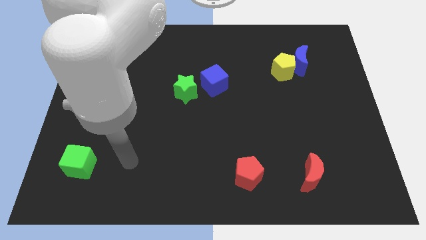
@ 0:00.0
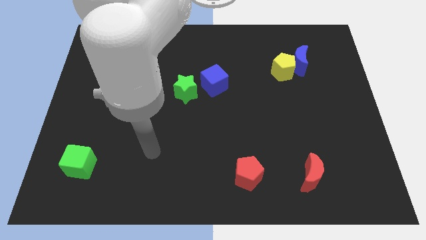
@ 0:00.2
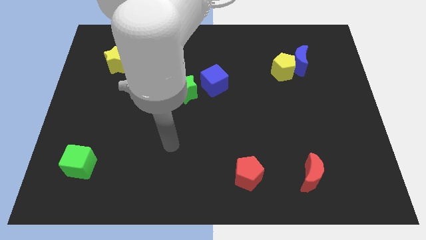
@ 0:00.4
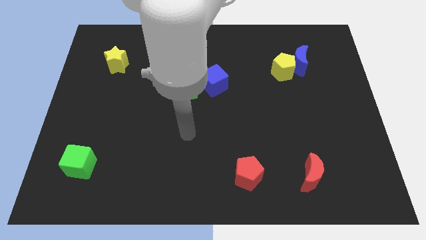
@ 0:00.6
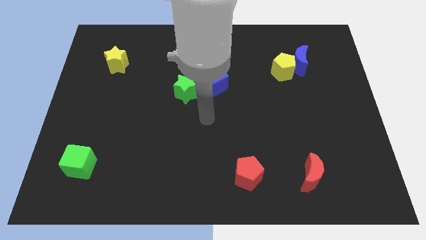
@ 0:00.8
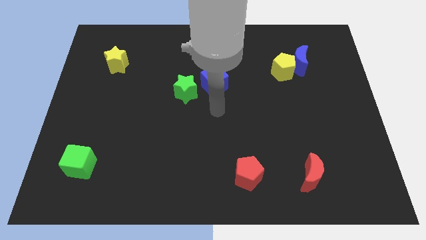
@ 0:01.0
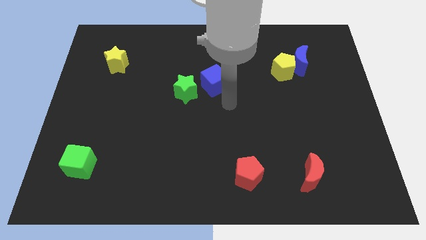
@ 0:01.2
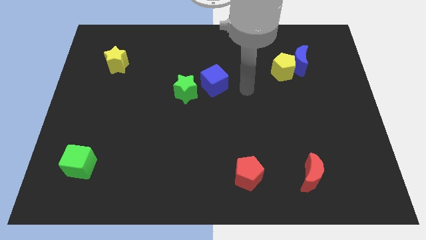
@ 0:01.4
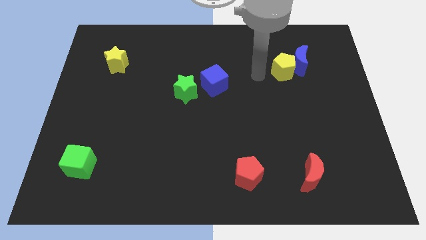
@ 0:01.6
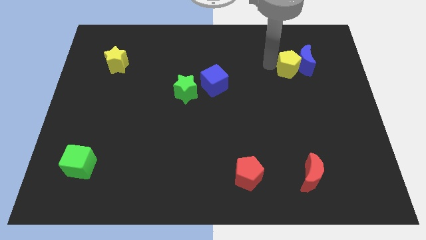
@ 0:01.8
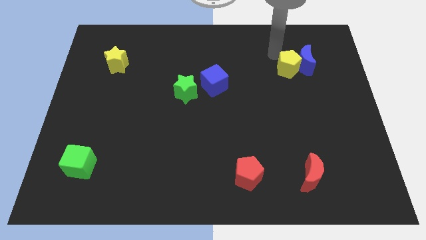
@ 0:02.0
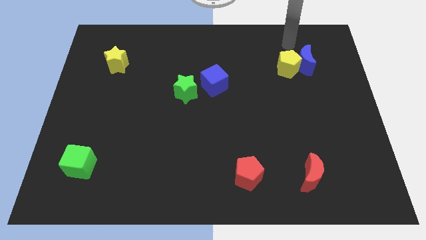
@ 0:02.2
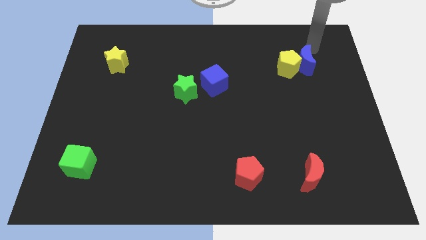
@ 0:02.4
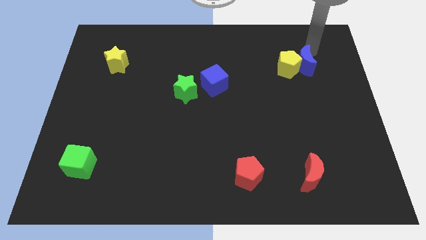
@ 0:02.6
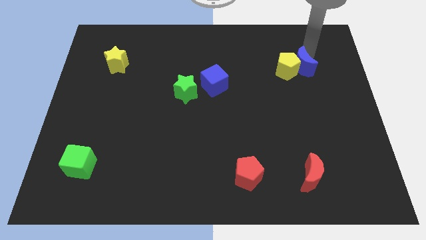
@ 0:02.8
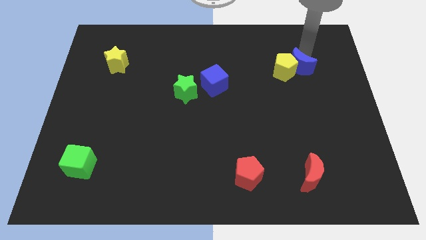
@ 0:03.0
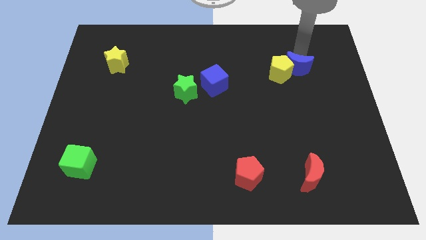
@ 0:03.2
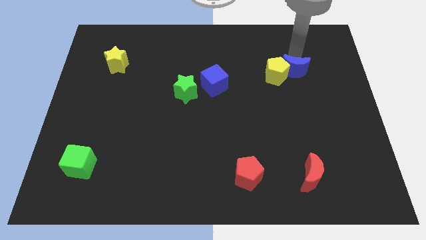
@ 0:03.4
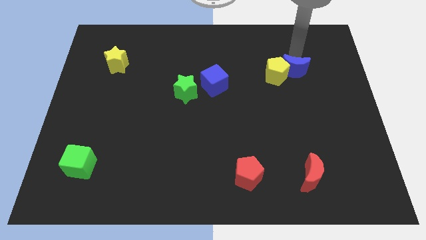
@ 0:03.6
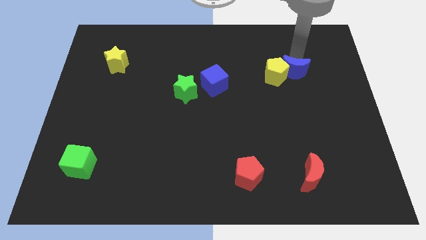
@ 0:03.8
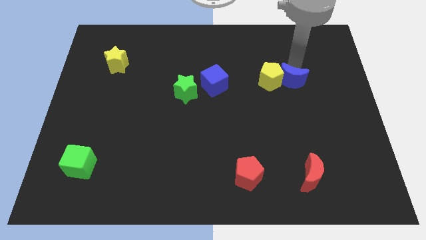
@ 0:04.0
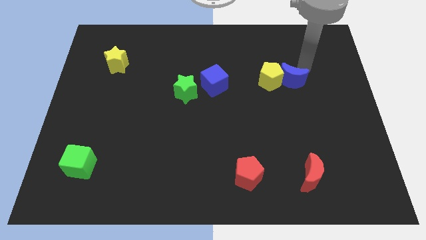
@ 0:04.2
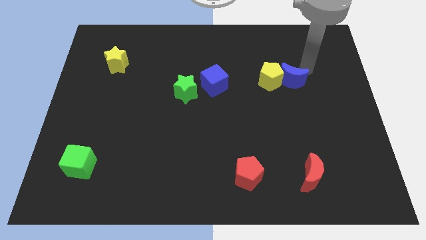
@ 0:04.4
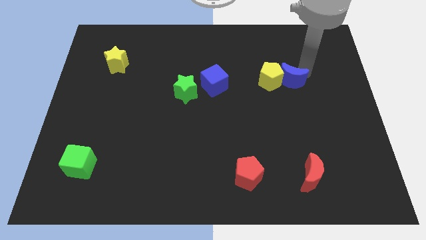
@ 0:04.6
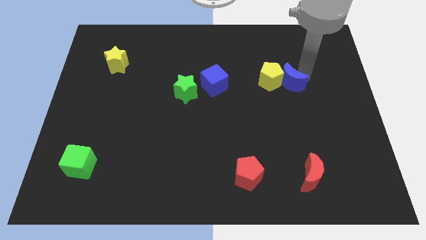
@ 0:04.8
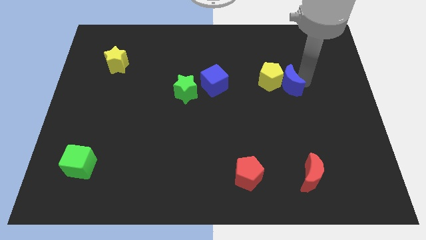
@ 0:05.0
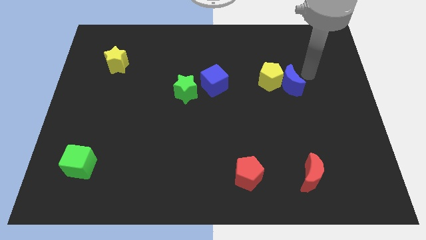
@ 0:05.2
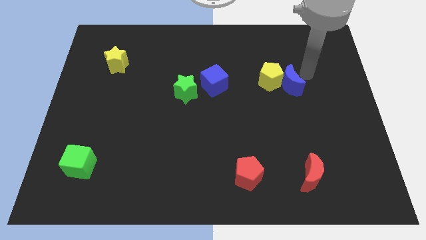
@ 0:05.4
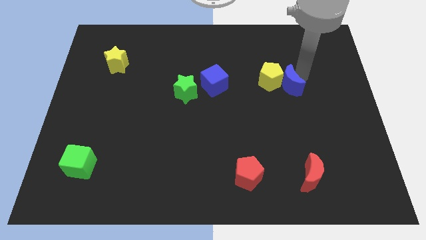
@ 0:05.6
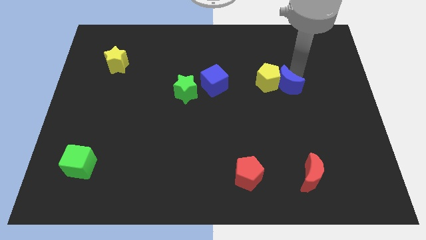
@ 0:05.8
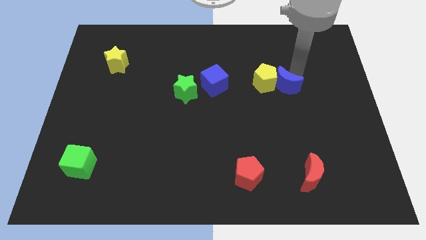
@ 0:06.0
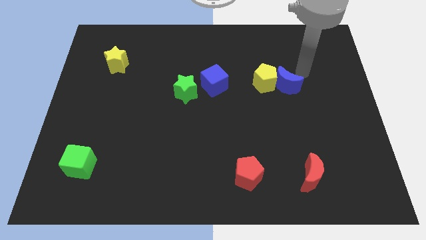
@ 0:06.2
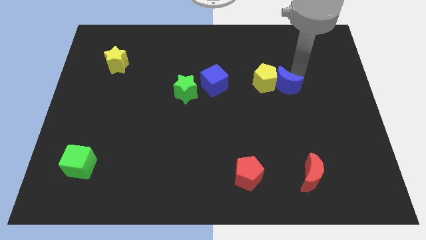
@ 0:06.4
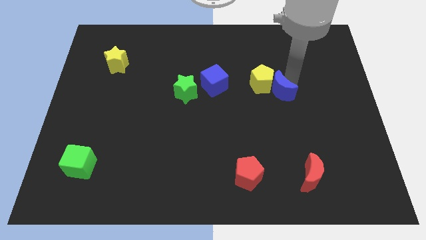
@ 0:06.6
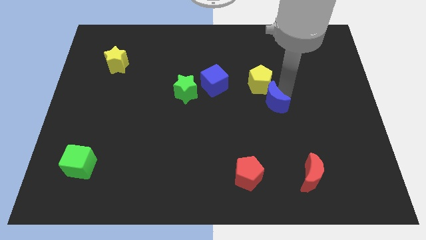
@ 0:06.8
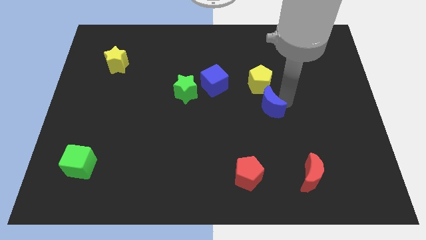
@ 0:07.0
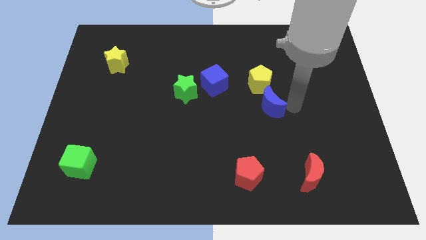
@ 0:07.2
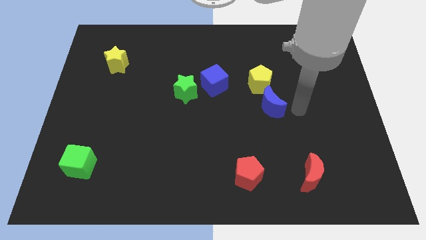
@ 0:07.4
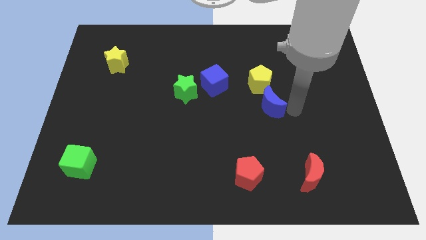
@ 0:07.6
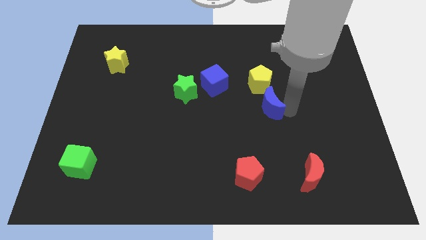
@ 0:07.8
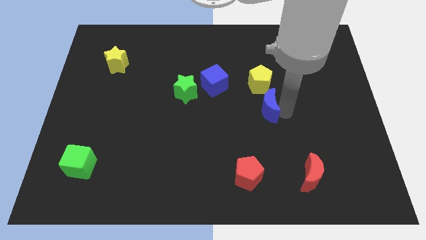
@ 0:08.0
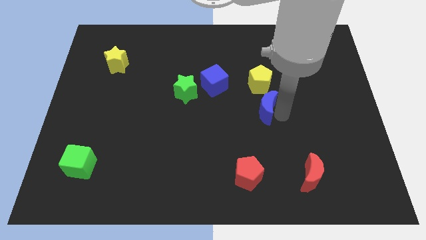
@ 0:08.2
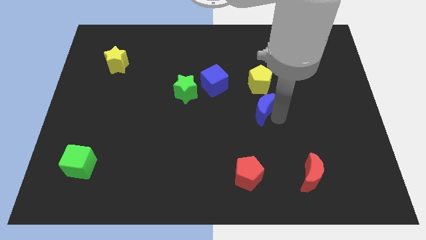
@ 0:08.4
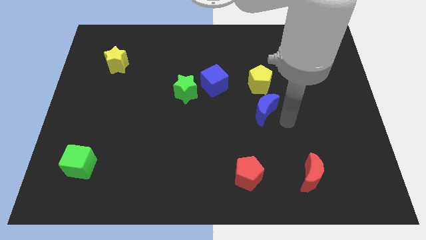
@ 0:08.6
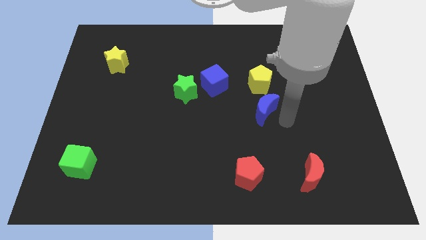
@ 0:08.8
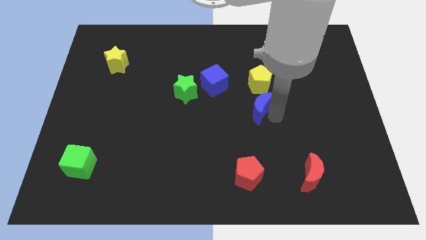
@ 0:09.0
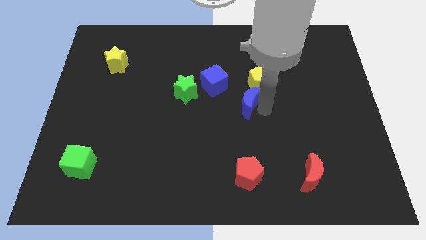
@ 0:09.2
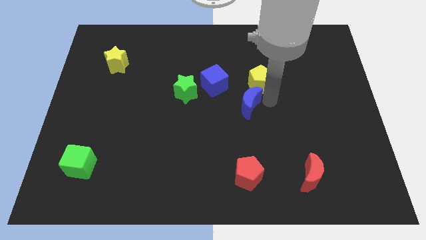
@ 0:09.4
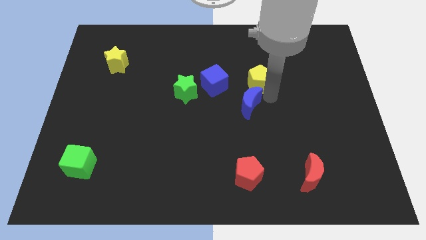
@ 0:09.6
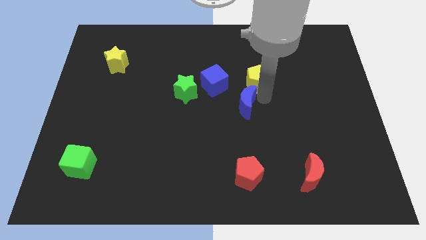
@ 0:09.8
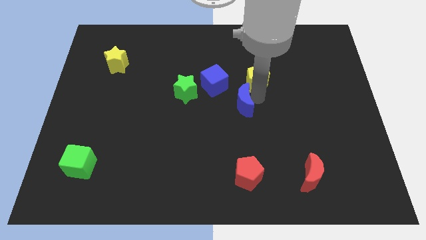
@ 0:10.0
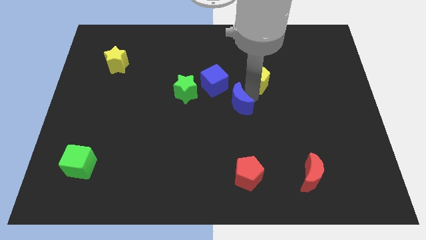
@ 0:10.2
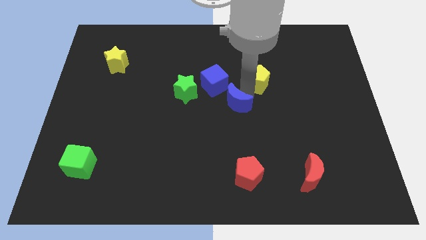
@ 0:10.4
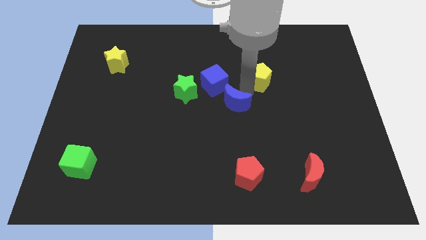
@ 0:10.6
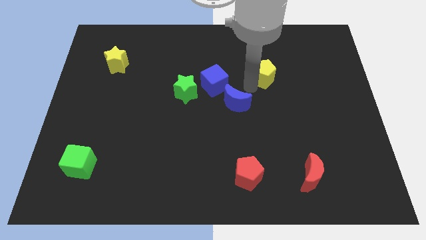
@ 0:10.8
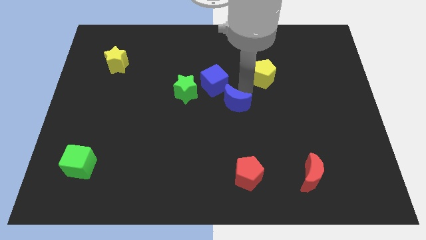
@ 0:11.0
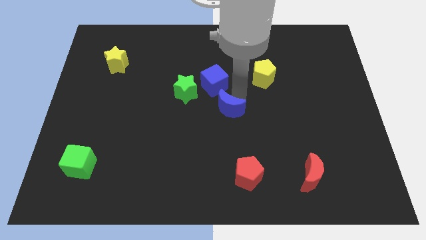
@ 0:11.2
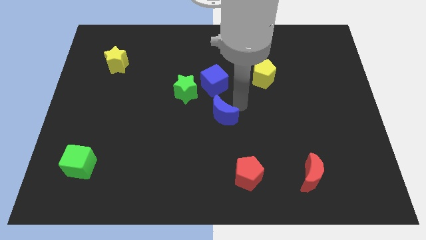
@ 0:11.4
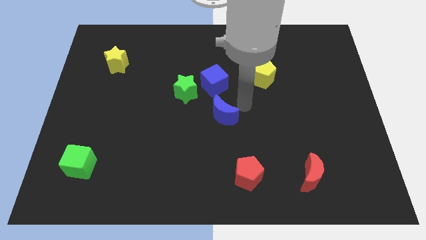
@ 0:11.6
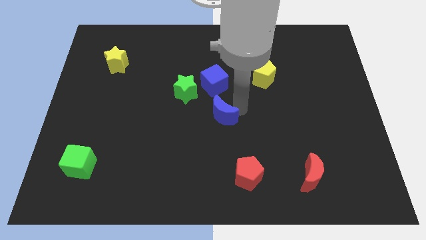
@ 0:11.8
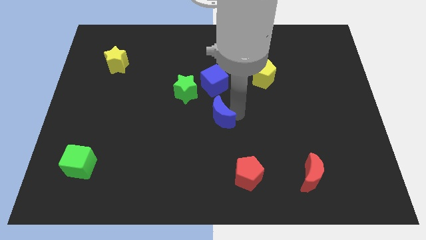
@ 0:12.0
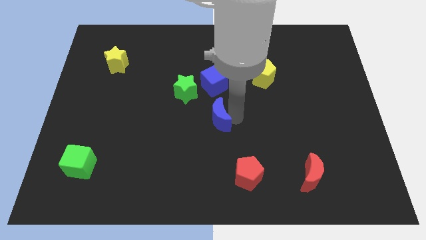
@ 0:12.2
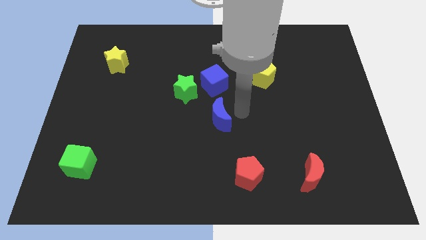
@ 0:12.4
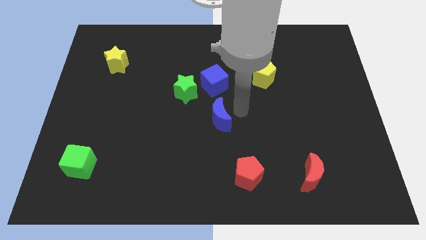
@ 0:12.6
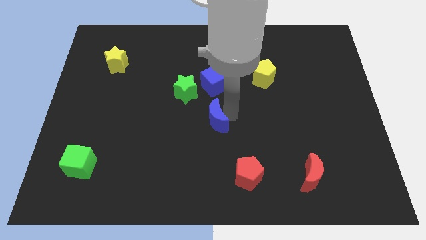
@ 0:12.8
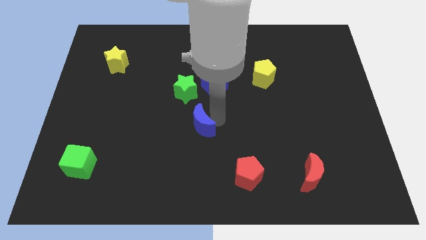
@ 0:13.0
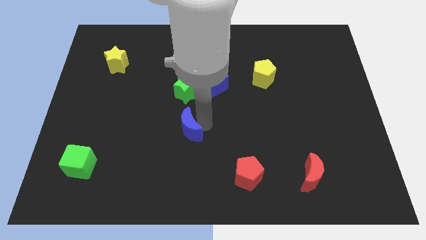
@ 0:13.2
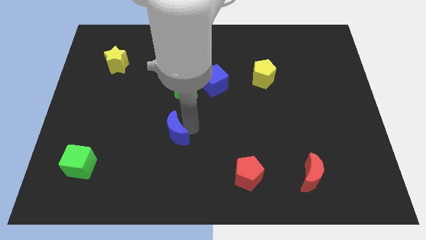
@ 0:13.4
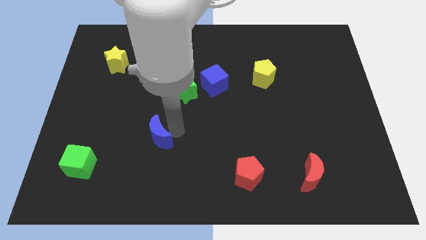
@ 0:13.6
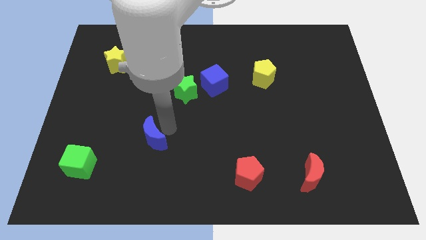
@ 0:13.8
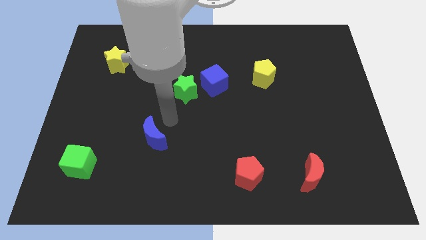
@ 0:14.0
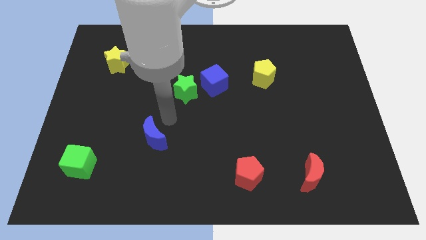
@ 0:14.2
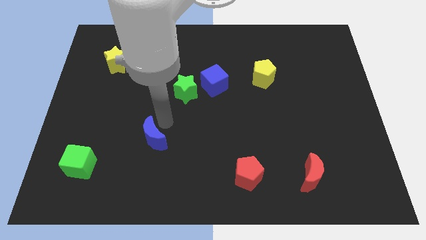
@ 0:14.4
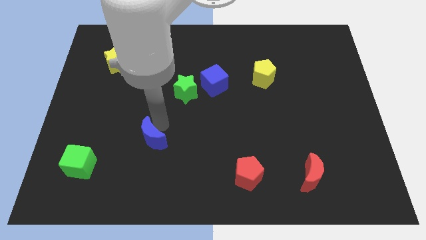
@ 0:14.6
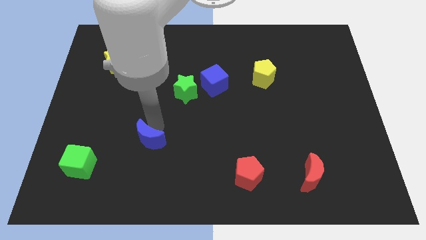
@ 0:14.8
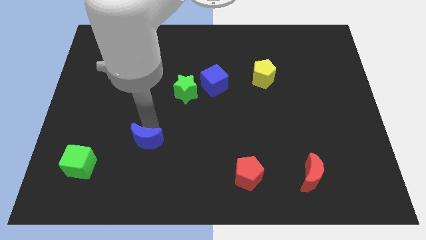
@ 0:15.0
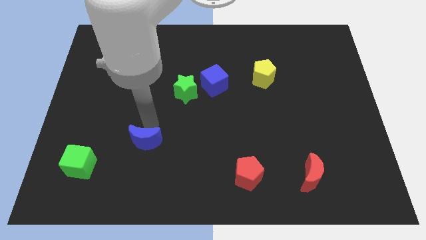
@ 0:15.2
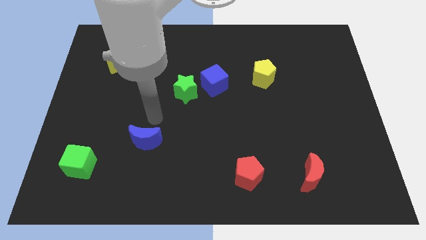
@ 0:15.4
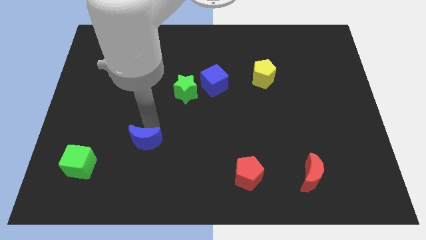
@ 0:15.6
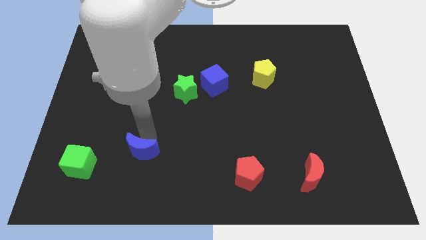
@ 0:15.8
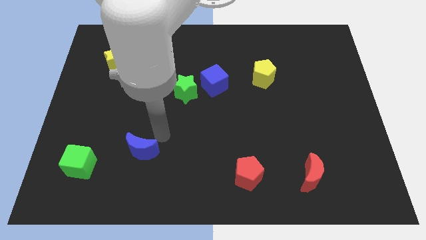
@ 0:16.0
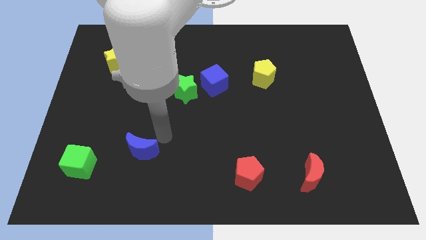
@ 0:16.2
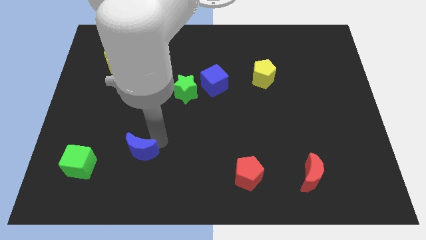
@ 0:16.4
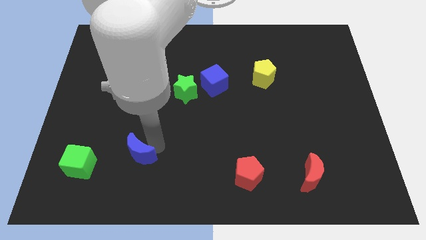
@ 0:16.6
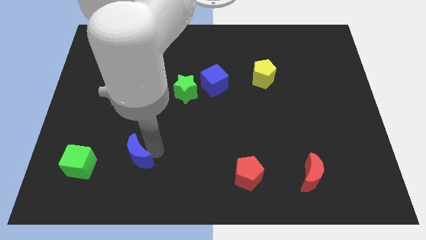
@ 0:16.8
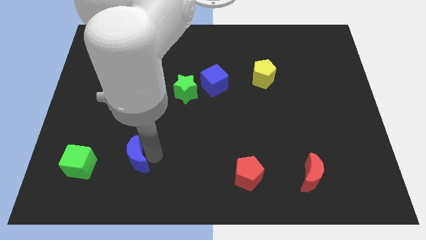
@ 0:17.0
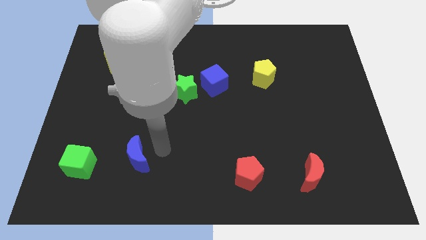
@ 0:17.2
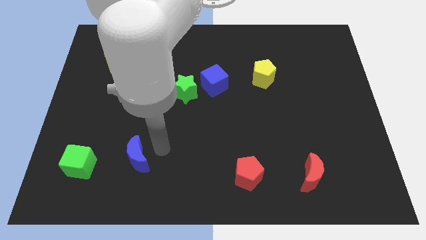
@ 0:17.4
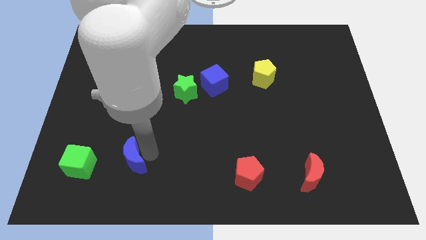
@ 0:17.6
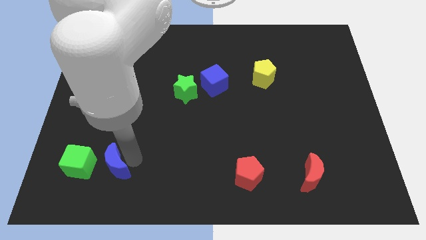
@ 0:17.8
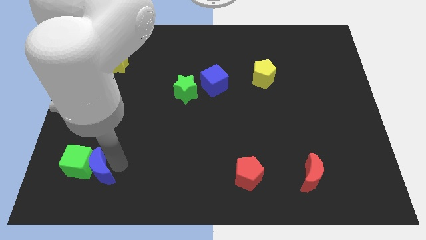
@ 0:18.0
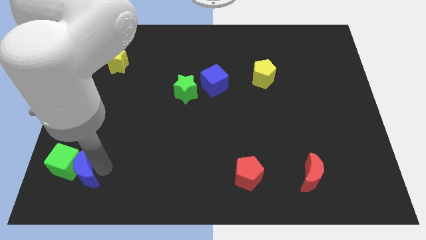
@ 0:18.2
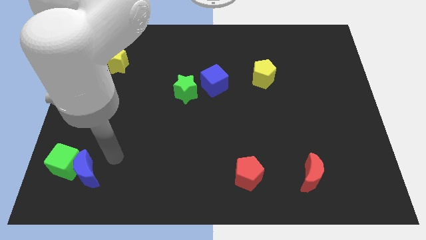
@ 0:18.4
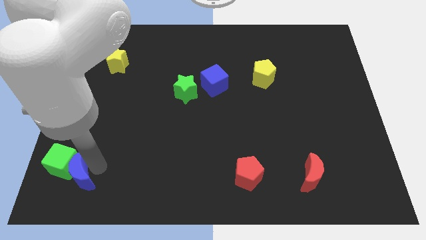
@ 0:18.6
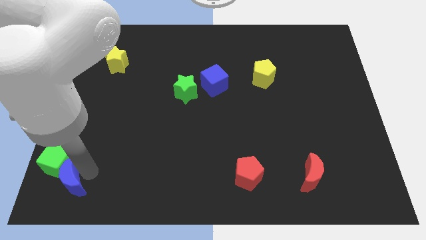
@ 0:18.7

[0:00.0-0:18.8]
slide the blue moon to the bottom left corner
